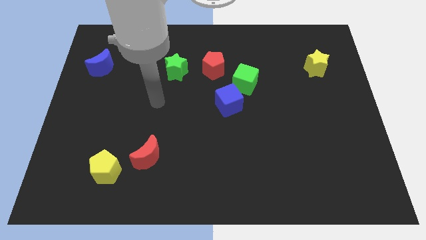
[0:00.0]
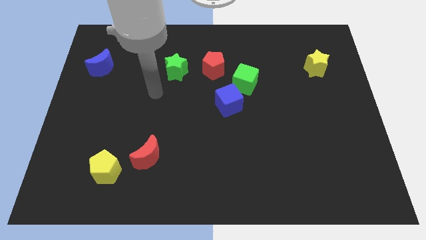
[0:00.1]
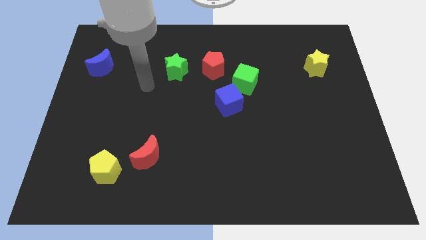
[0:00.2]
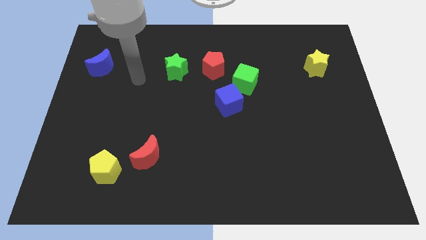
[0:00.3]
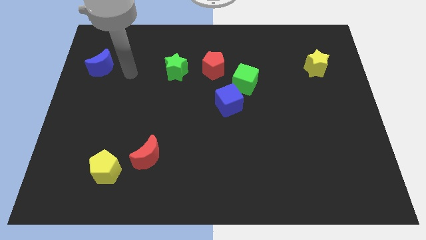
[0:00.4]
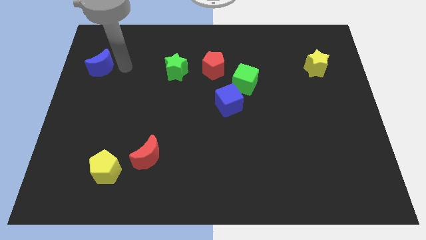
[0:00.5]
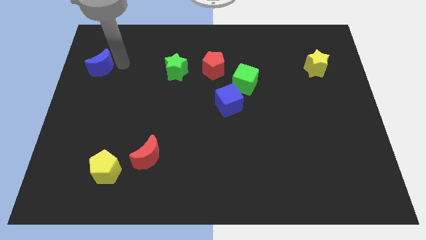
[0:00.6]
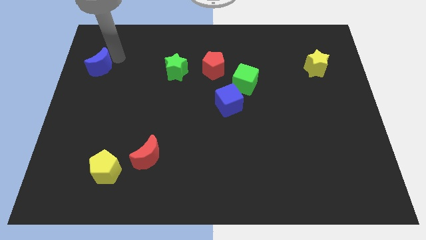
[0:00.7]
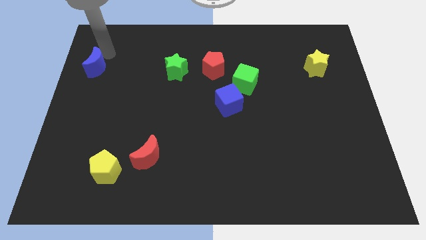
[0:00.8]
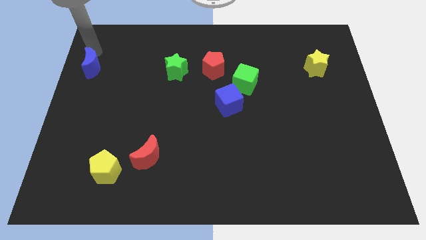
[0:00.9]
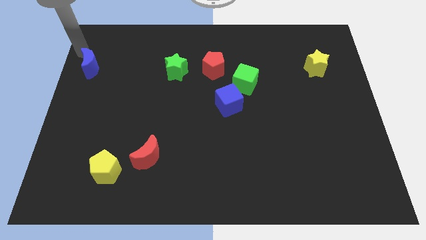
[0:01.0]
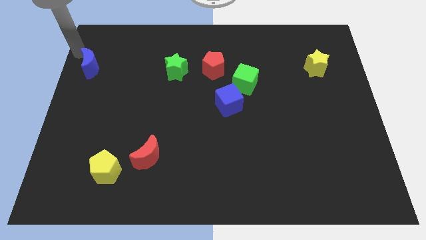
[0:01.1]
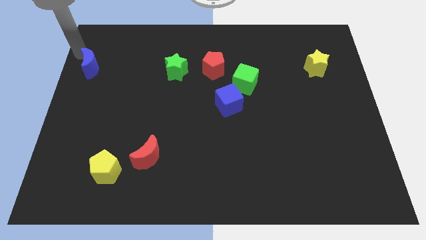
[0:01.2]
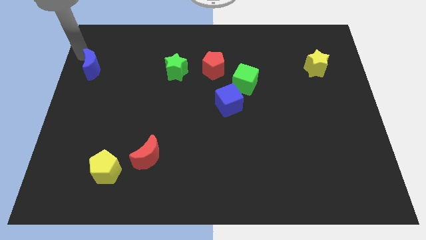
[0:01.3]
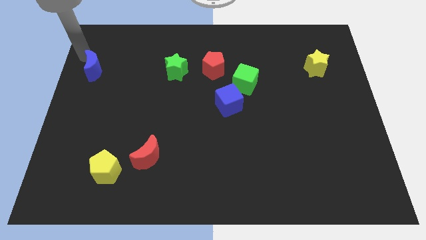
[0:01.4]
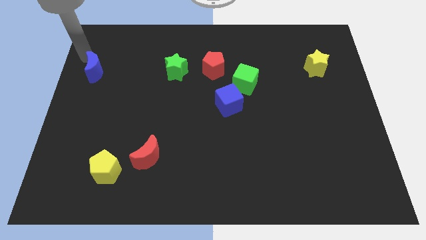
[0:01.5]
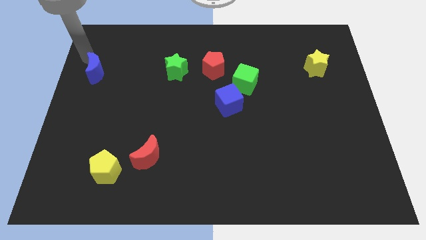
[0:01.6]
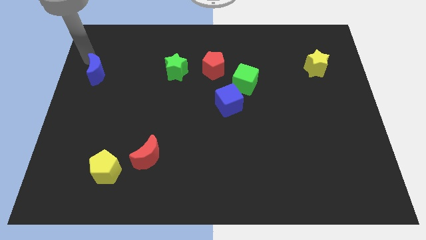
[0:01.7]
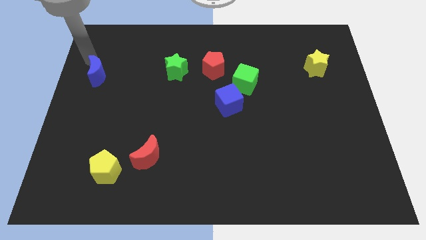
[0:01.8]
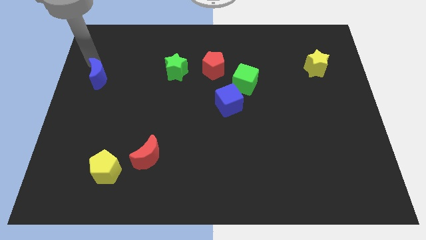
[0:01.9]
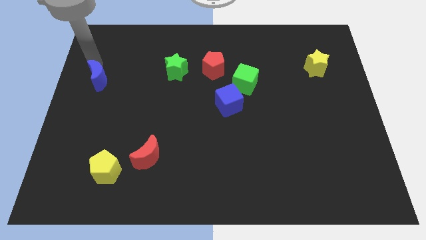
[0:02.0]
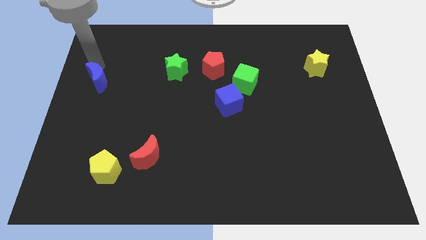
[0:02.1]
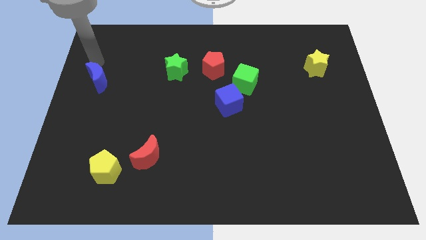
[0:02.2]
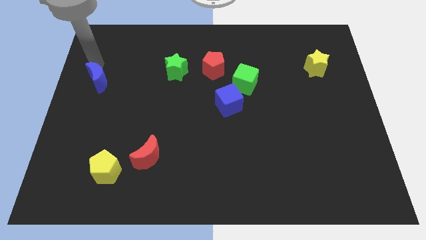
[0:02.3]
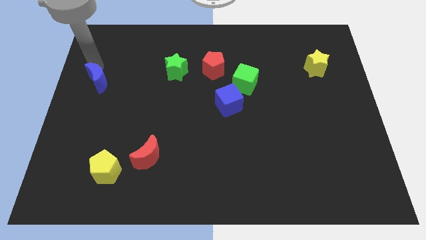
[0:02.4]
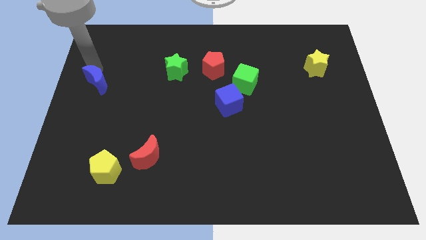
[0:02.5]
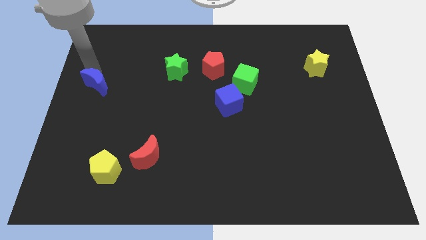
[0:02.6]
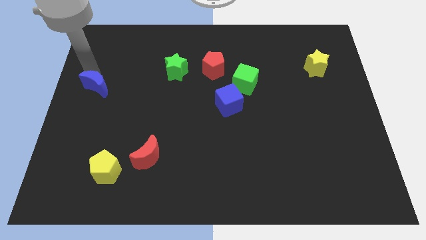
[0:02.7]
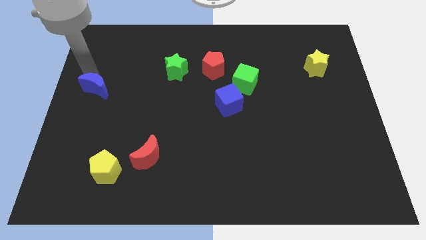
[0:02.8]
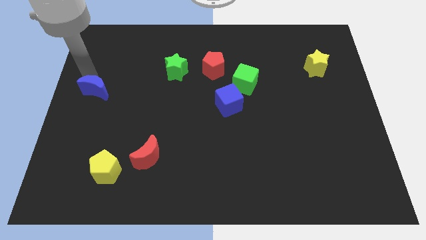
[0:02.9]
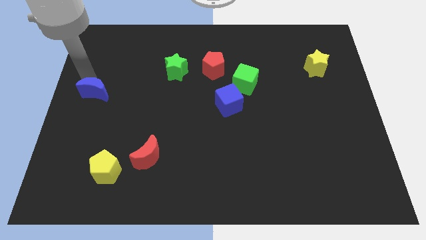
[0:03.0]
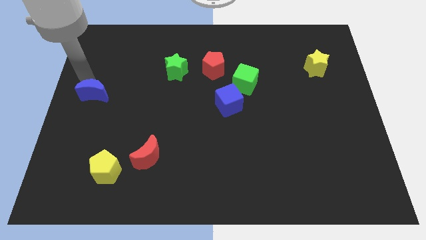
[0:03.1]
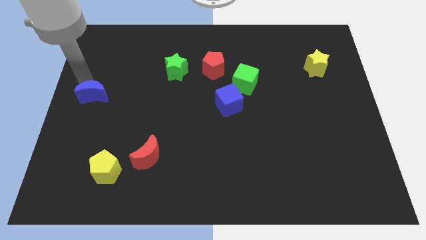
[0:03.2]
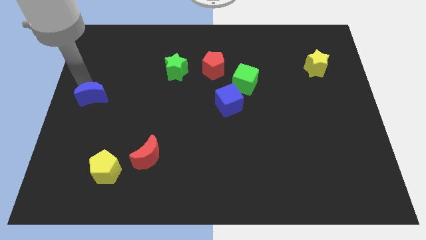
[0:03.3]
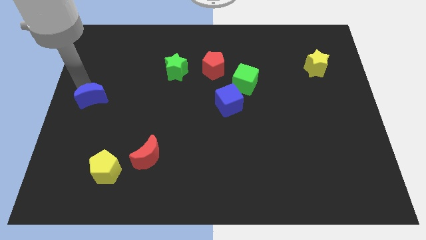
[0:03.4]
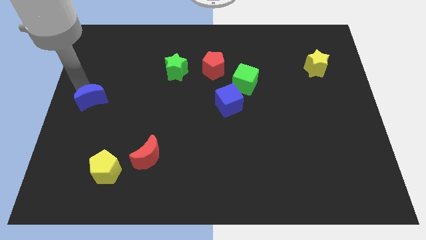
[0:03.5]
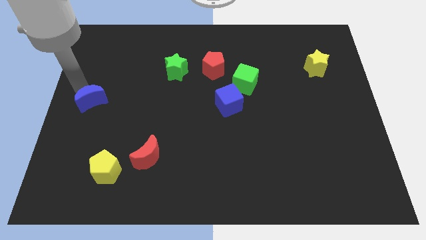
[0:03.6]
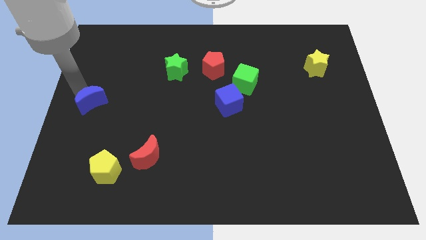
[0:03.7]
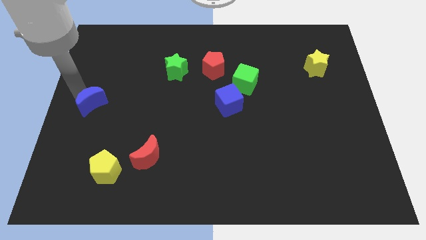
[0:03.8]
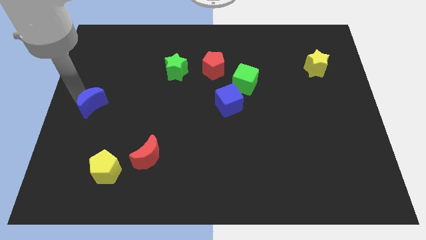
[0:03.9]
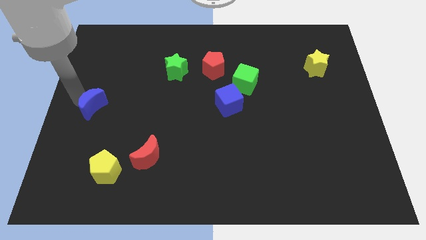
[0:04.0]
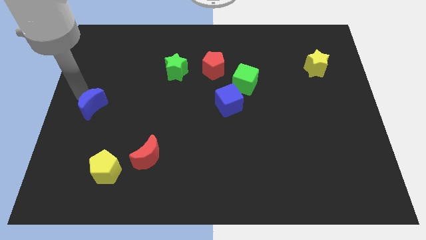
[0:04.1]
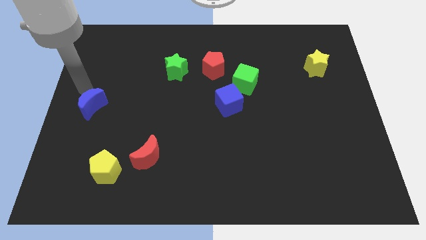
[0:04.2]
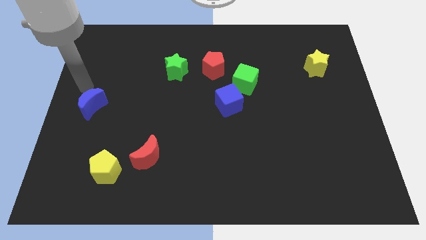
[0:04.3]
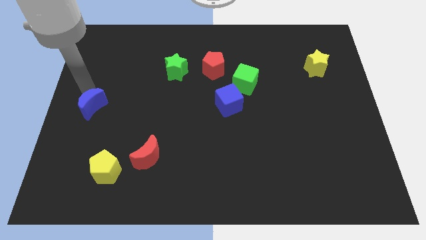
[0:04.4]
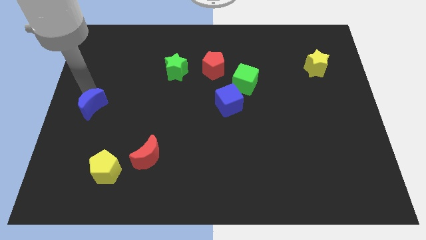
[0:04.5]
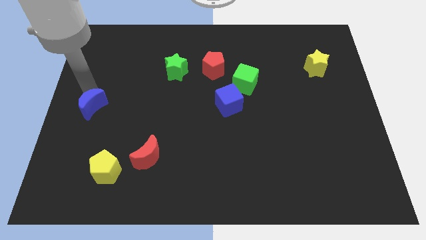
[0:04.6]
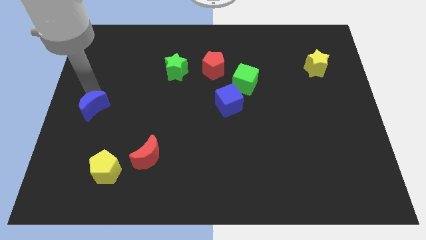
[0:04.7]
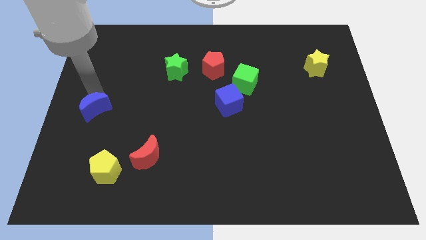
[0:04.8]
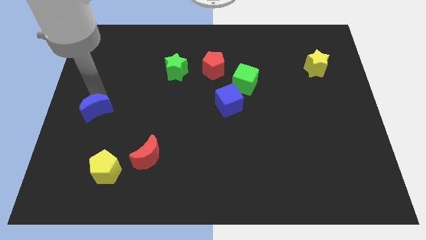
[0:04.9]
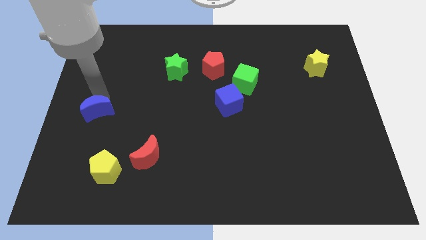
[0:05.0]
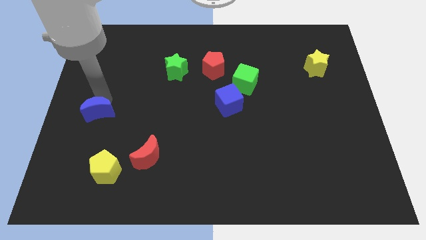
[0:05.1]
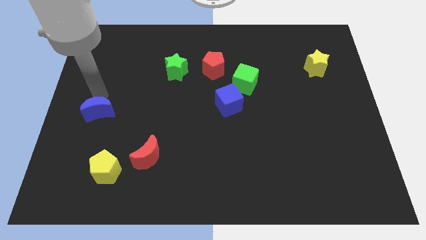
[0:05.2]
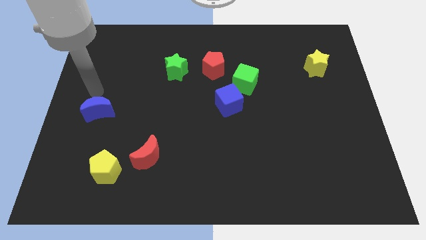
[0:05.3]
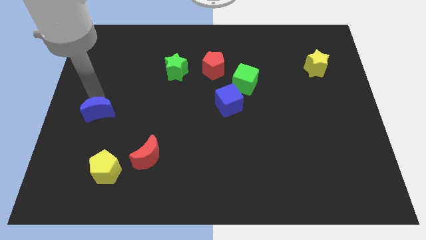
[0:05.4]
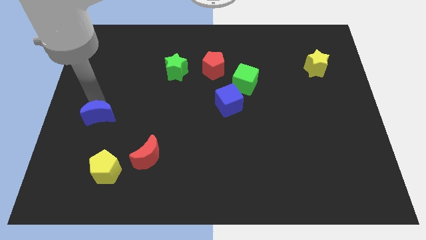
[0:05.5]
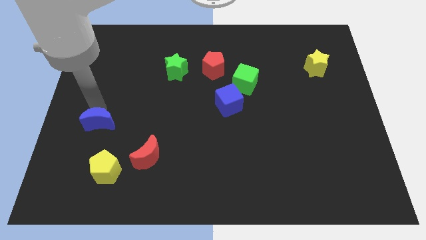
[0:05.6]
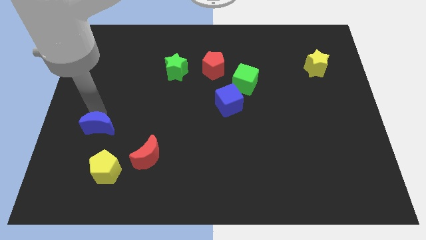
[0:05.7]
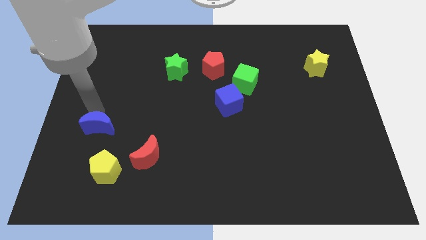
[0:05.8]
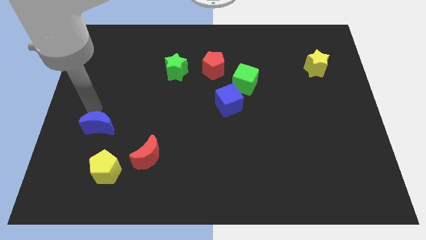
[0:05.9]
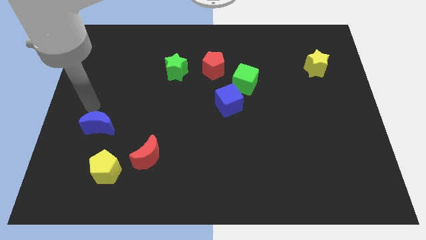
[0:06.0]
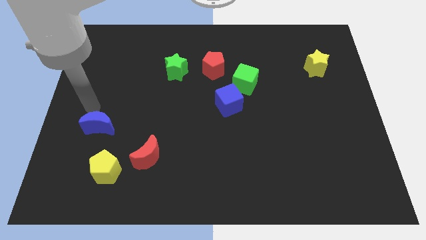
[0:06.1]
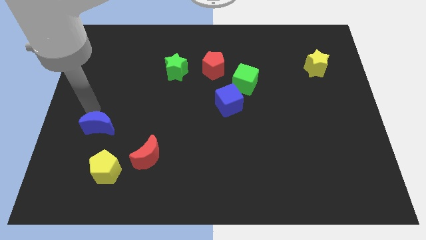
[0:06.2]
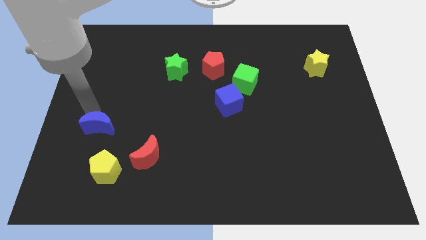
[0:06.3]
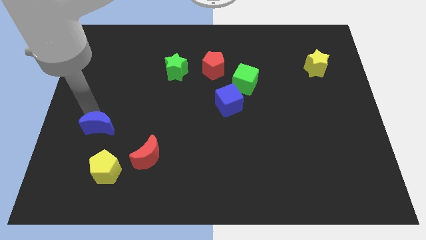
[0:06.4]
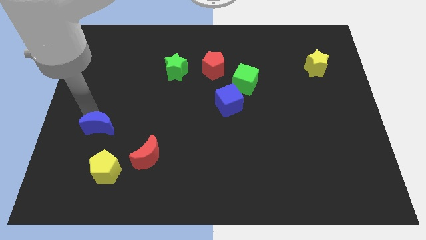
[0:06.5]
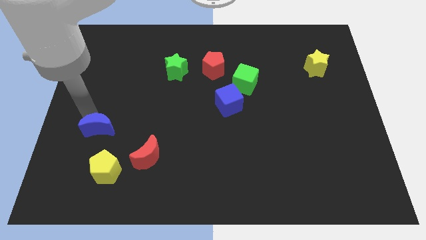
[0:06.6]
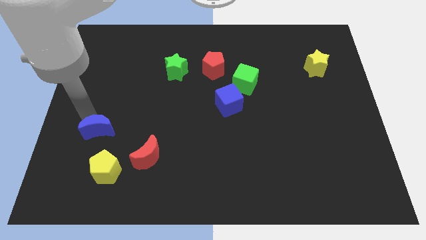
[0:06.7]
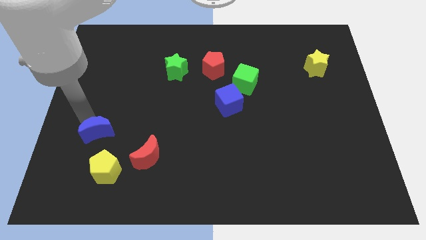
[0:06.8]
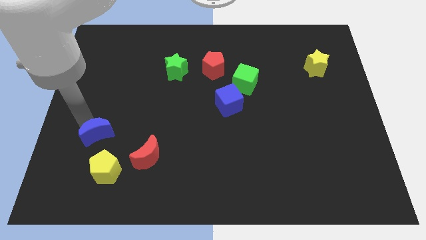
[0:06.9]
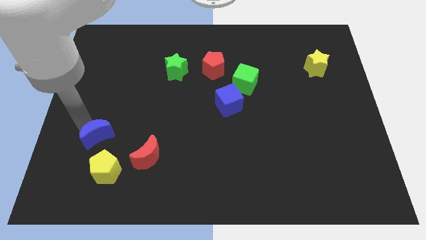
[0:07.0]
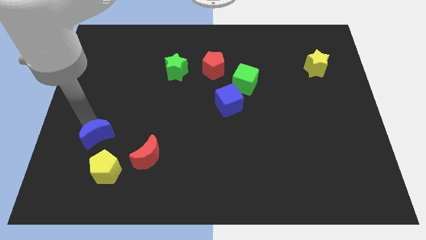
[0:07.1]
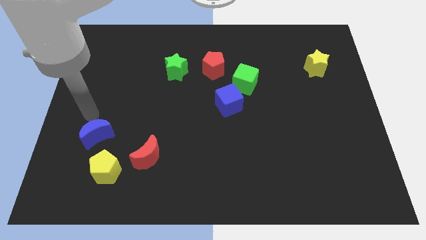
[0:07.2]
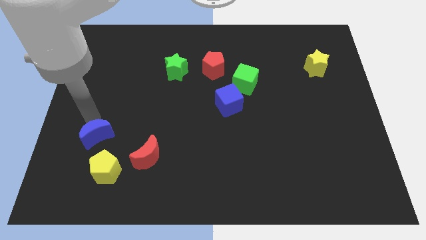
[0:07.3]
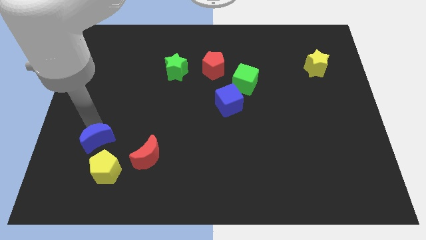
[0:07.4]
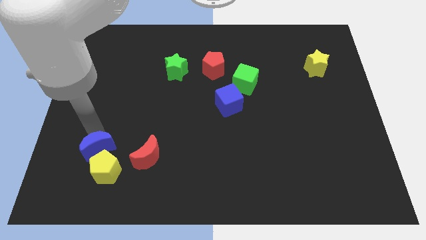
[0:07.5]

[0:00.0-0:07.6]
push the blue moon next to the yellow pentagon
